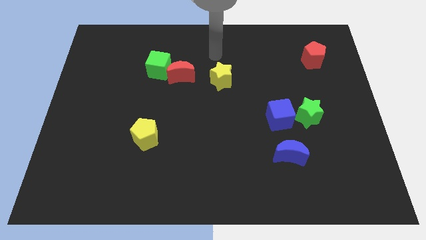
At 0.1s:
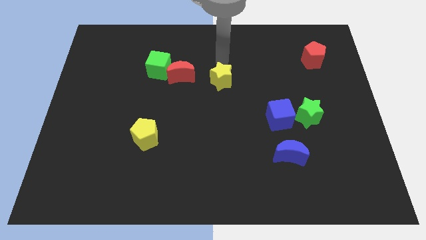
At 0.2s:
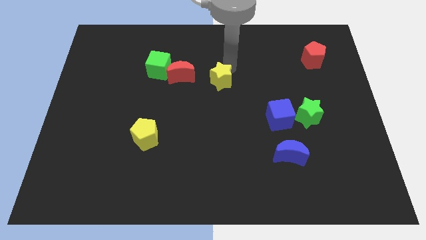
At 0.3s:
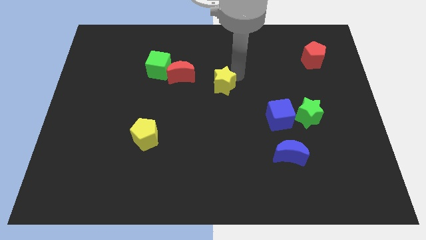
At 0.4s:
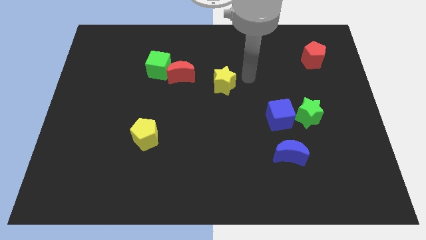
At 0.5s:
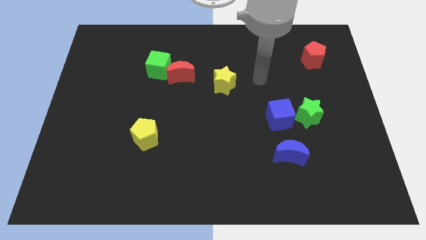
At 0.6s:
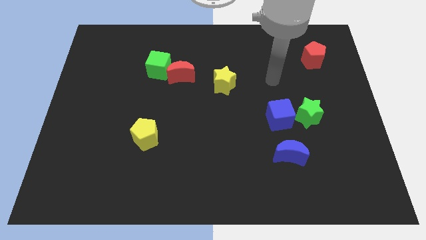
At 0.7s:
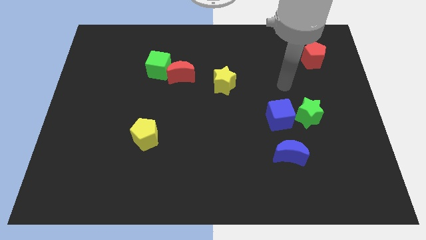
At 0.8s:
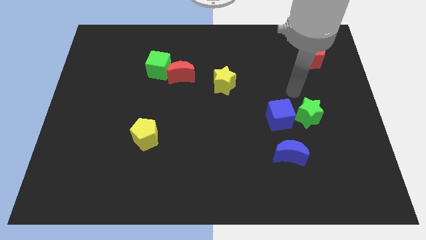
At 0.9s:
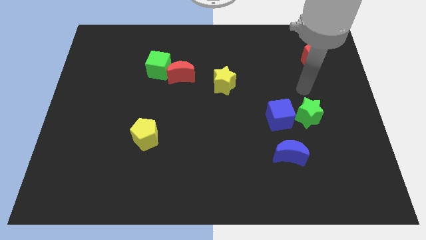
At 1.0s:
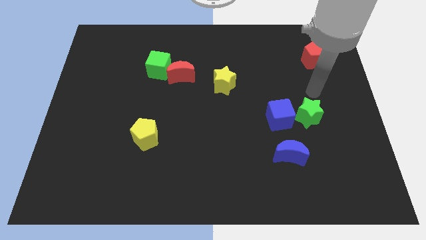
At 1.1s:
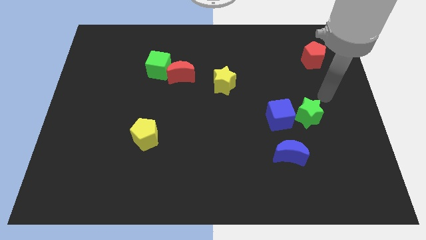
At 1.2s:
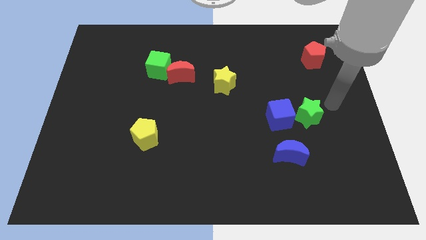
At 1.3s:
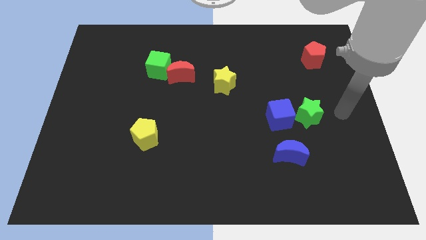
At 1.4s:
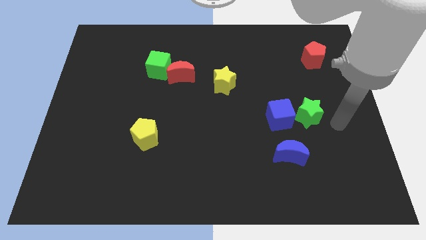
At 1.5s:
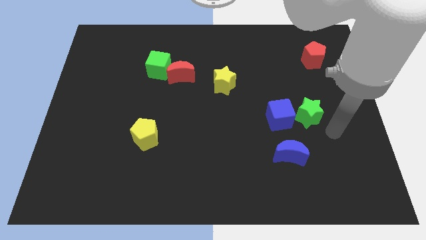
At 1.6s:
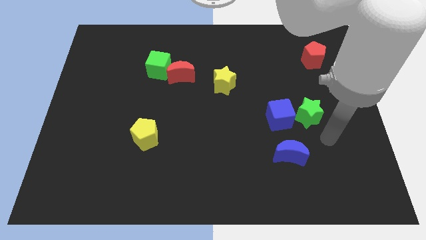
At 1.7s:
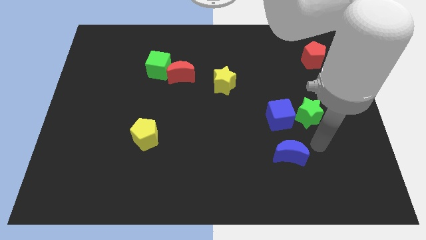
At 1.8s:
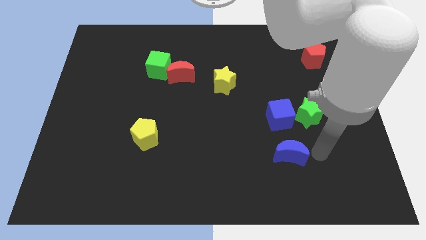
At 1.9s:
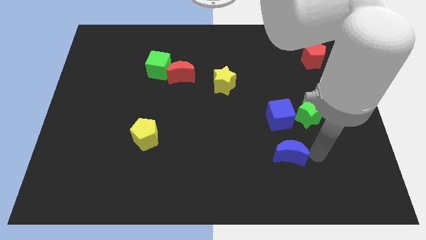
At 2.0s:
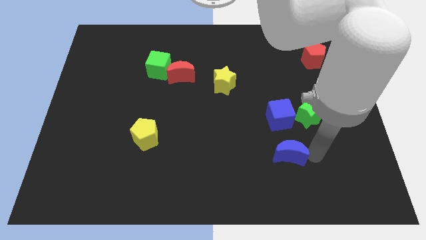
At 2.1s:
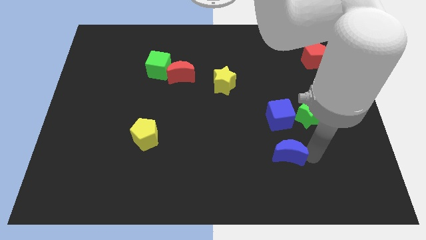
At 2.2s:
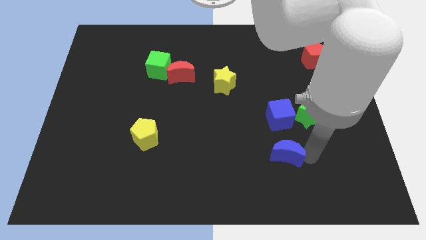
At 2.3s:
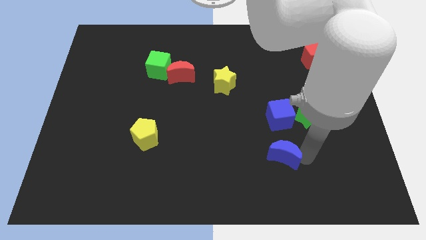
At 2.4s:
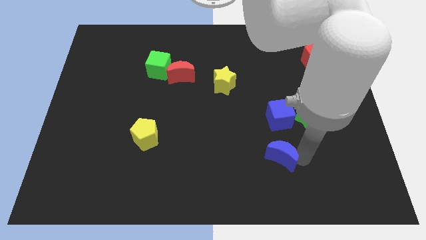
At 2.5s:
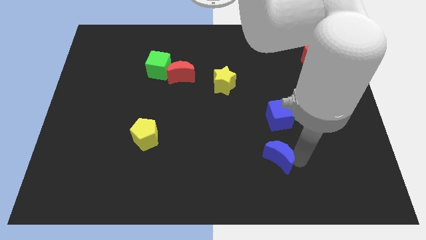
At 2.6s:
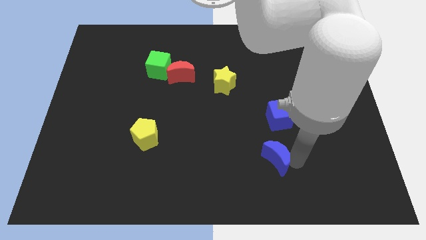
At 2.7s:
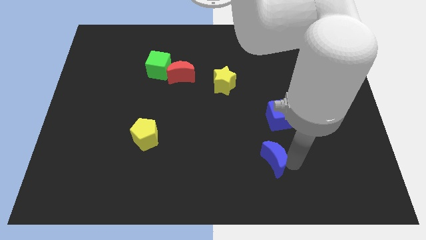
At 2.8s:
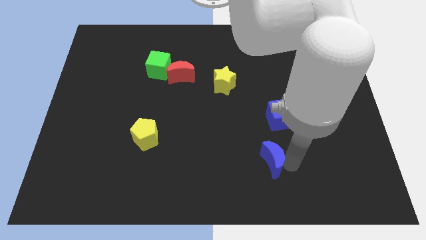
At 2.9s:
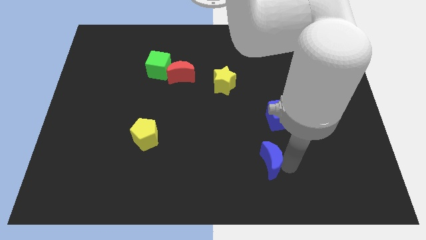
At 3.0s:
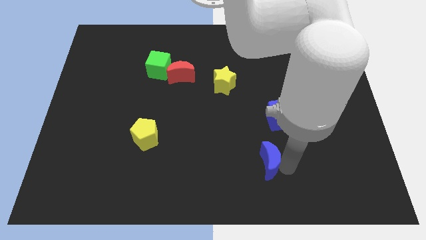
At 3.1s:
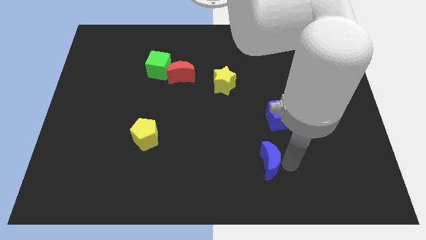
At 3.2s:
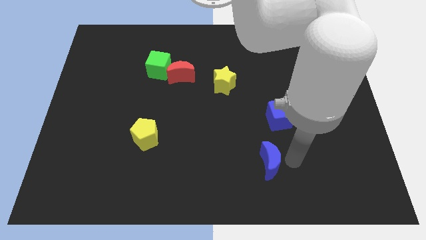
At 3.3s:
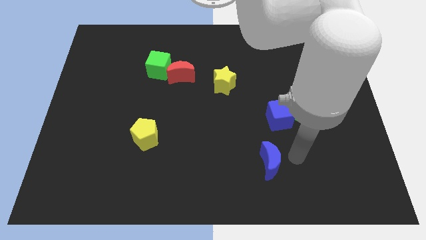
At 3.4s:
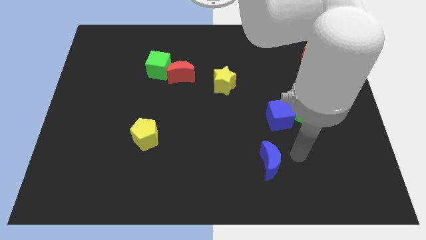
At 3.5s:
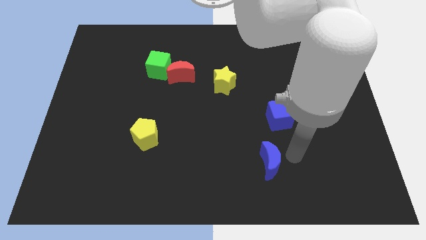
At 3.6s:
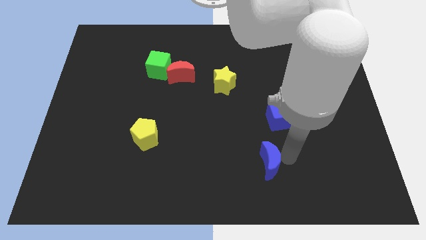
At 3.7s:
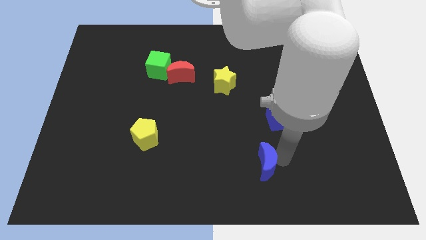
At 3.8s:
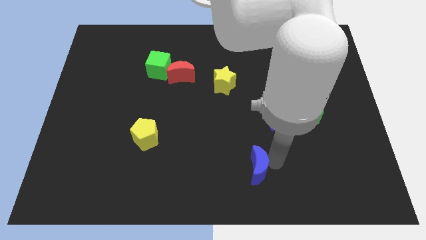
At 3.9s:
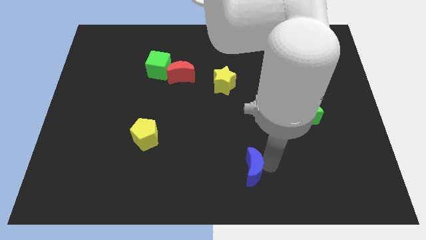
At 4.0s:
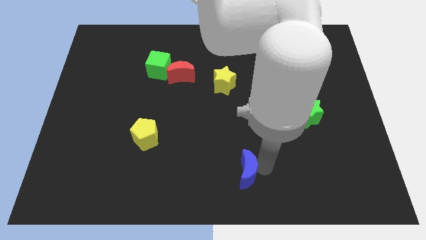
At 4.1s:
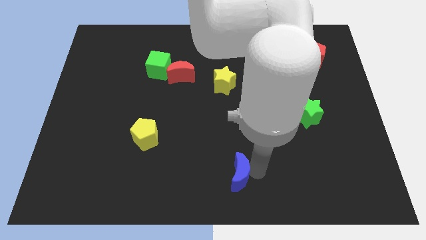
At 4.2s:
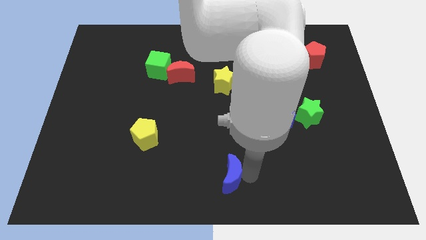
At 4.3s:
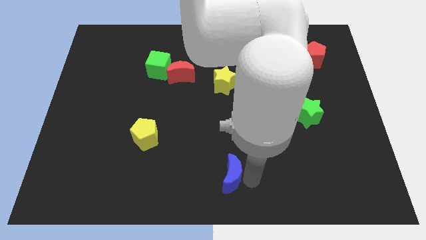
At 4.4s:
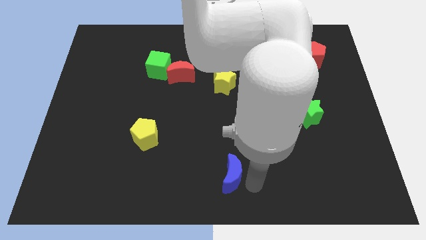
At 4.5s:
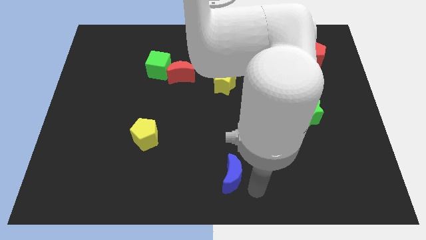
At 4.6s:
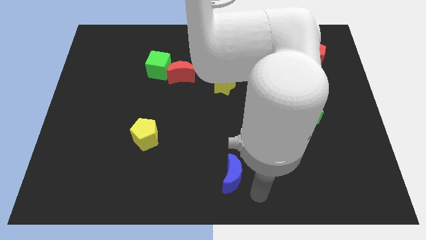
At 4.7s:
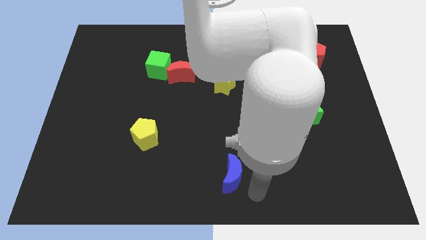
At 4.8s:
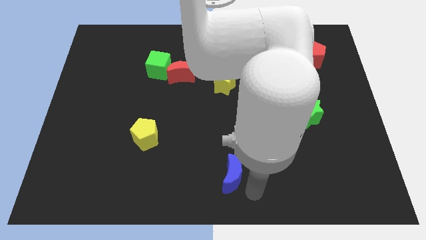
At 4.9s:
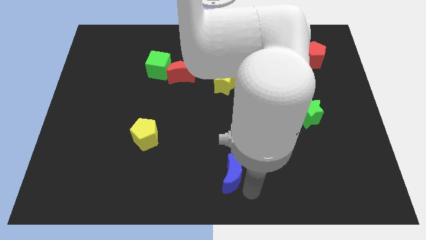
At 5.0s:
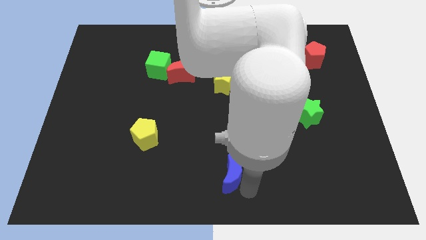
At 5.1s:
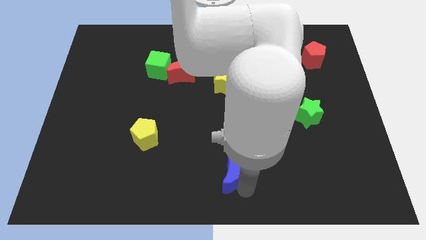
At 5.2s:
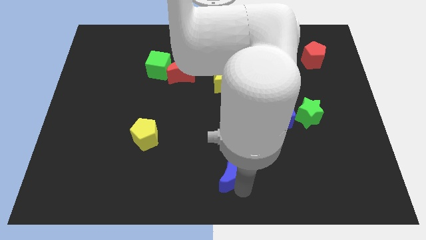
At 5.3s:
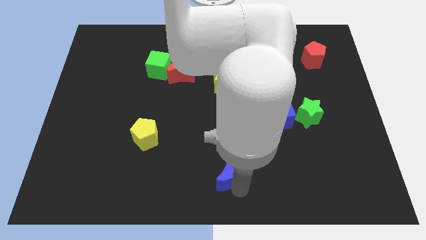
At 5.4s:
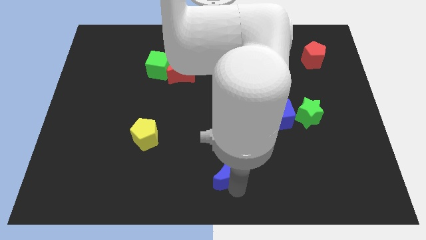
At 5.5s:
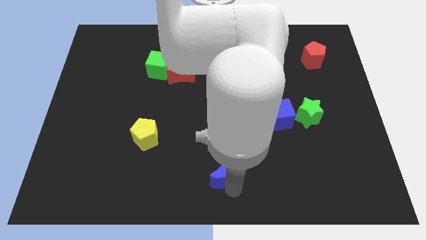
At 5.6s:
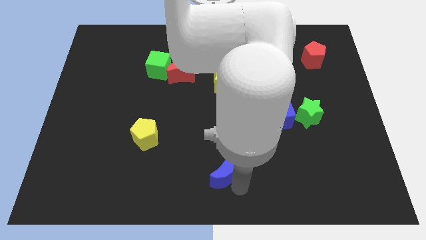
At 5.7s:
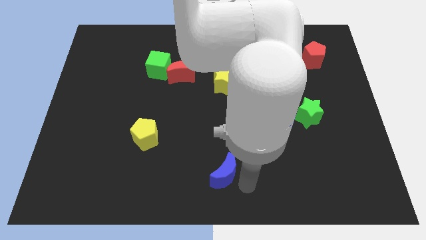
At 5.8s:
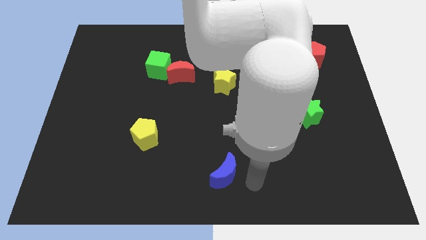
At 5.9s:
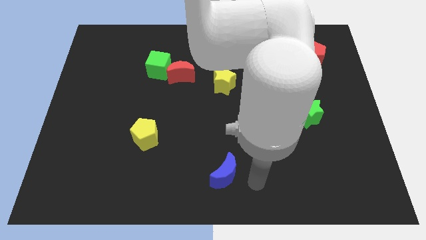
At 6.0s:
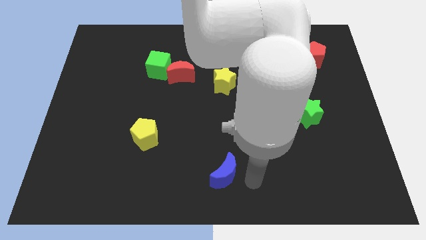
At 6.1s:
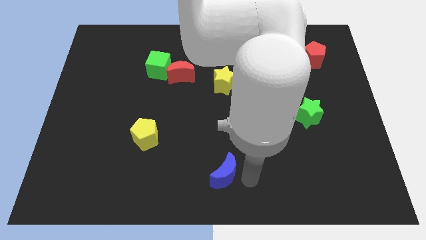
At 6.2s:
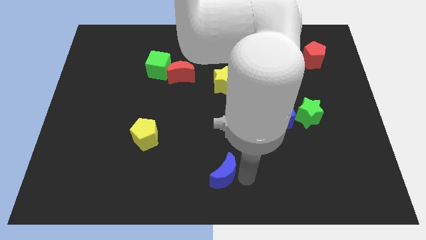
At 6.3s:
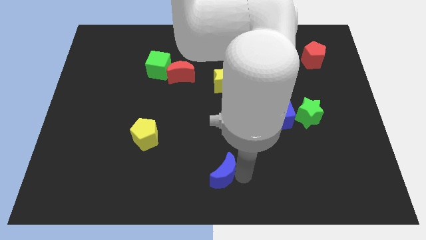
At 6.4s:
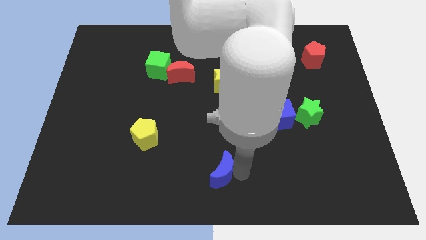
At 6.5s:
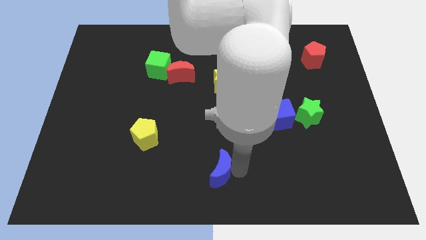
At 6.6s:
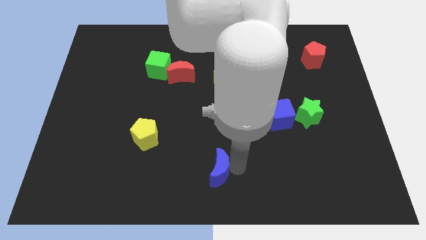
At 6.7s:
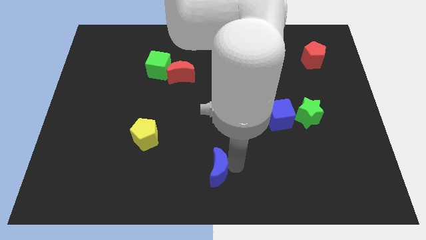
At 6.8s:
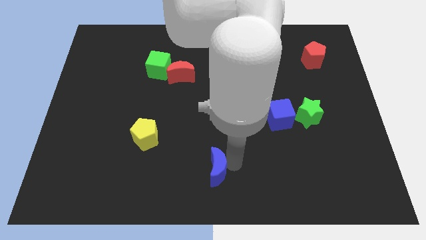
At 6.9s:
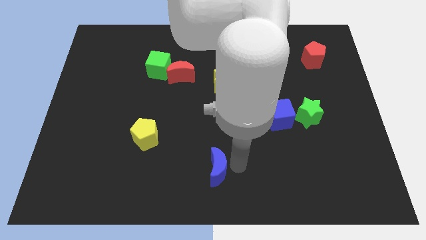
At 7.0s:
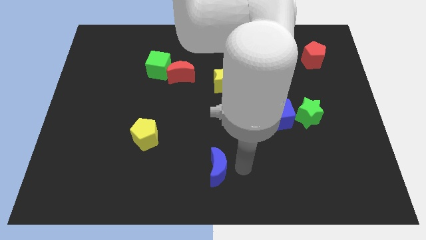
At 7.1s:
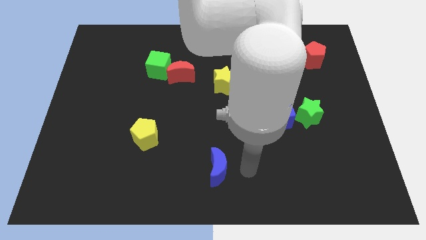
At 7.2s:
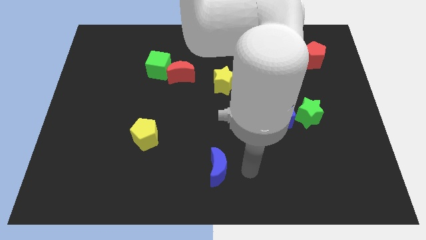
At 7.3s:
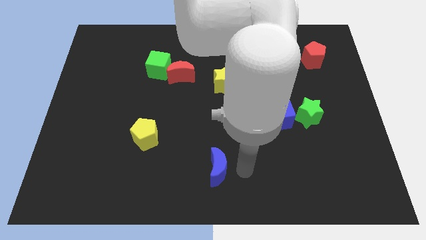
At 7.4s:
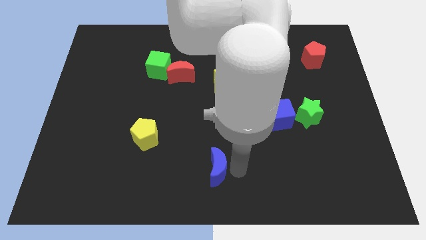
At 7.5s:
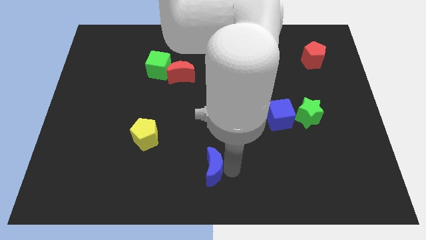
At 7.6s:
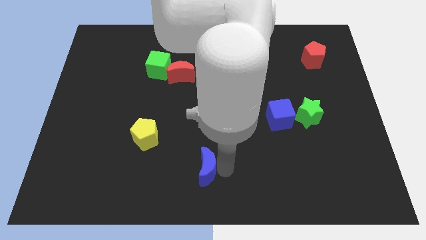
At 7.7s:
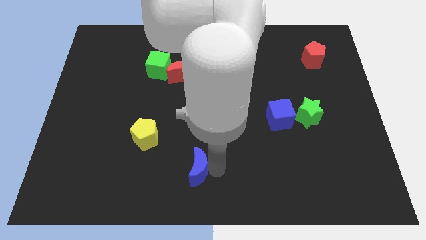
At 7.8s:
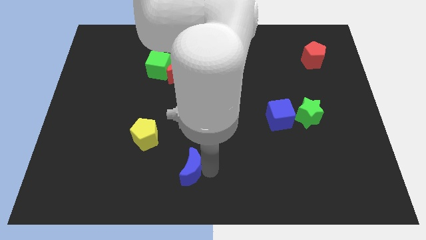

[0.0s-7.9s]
push the blue moon left
